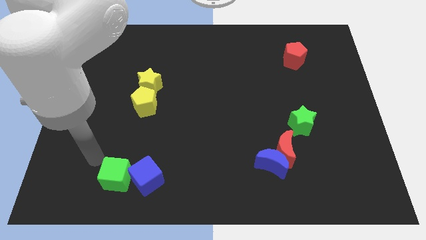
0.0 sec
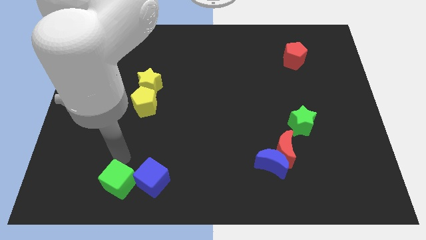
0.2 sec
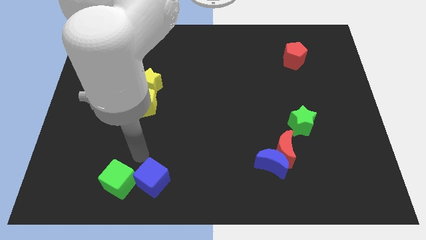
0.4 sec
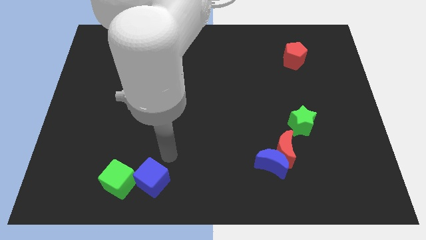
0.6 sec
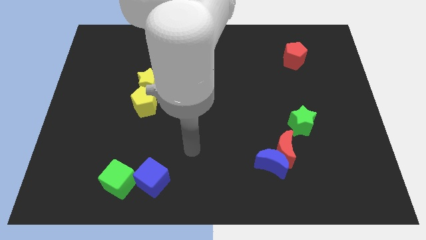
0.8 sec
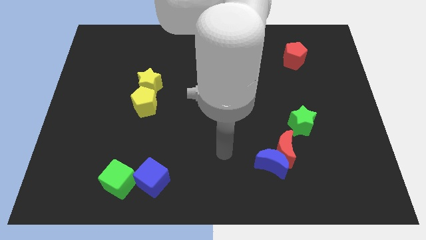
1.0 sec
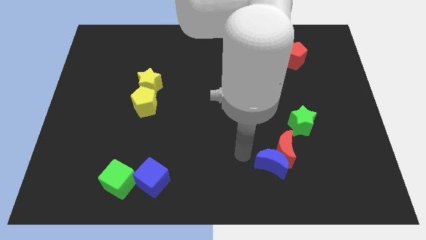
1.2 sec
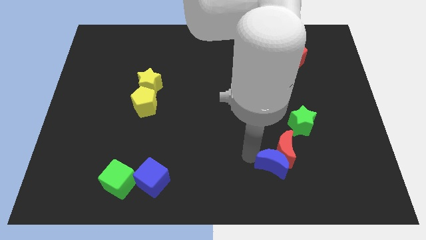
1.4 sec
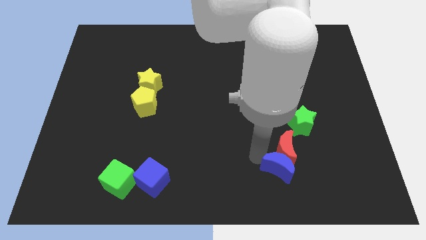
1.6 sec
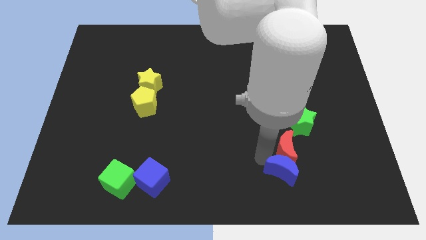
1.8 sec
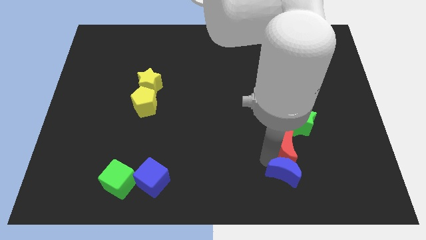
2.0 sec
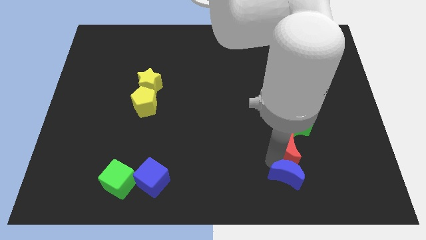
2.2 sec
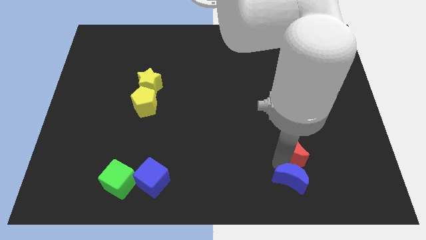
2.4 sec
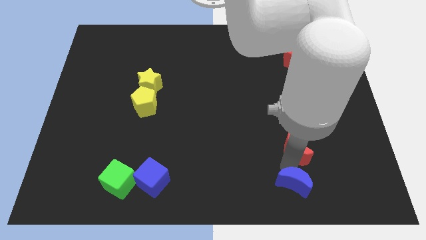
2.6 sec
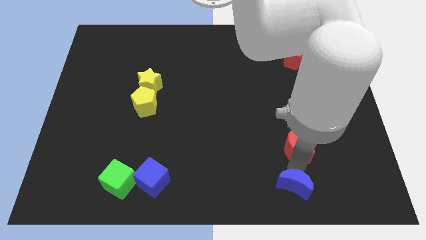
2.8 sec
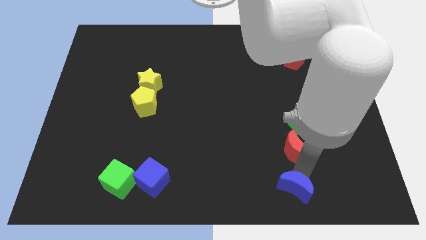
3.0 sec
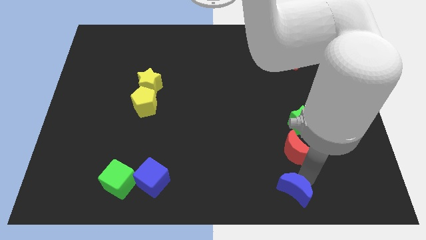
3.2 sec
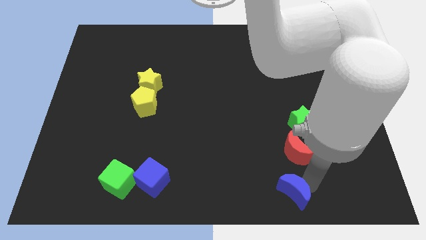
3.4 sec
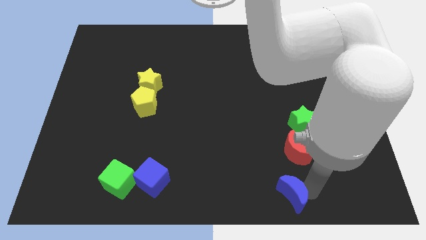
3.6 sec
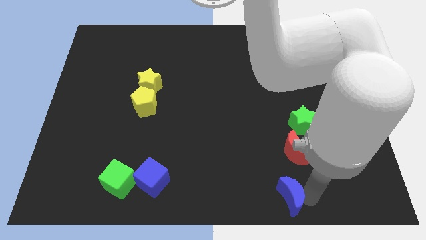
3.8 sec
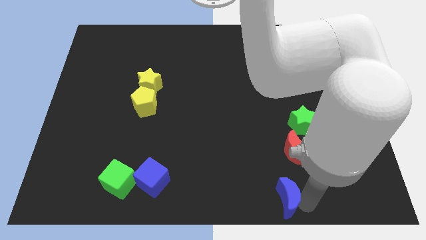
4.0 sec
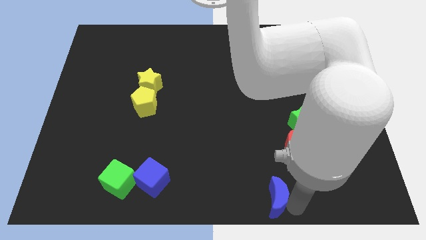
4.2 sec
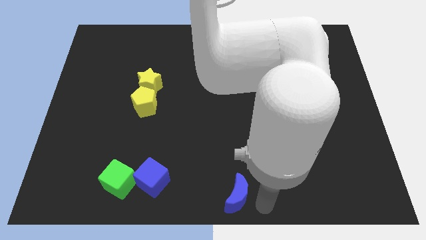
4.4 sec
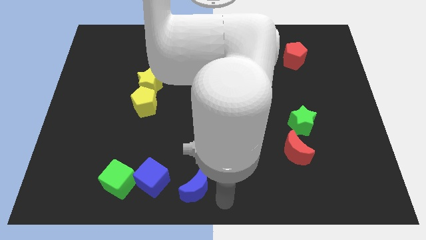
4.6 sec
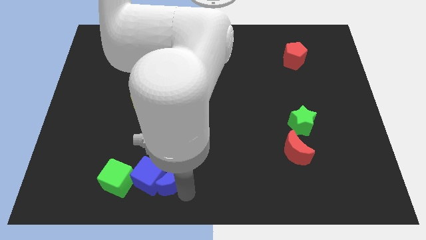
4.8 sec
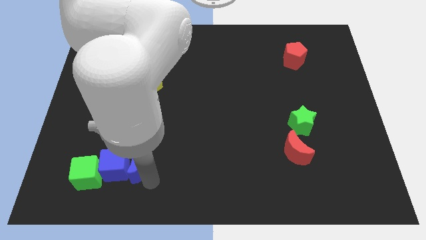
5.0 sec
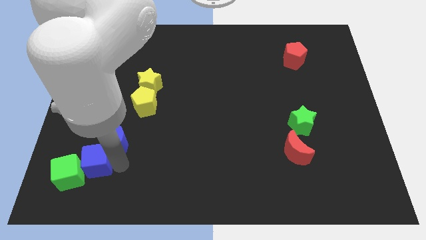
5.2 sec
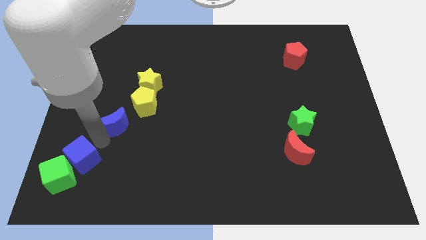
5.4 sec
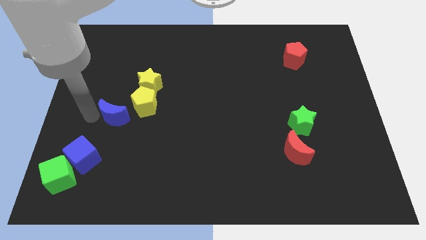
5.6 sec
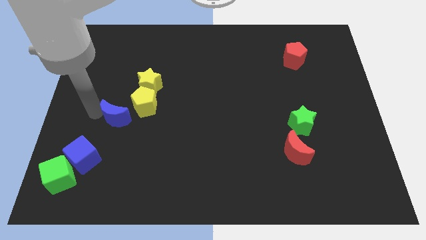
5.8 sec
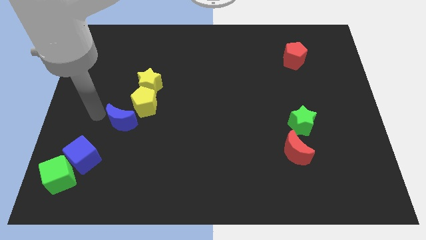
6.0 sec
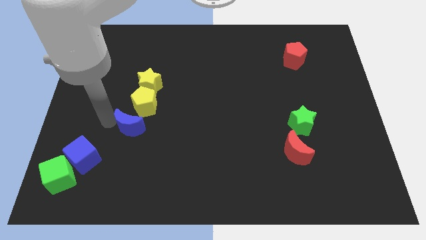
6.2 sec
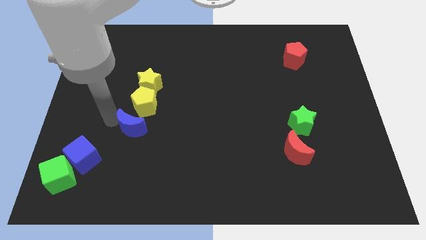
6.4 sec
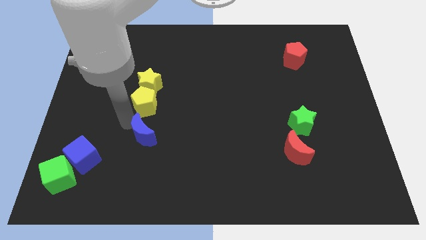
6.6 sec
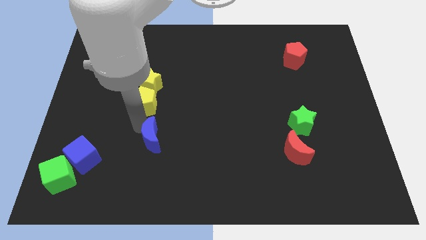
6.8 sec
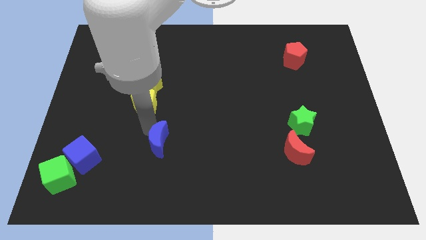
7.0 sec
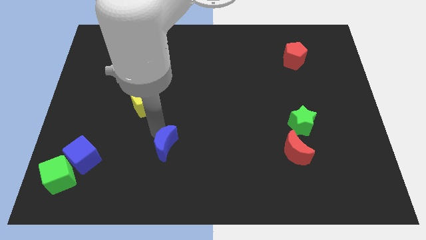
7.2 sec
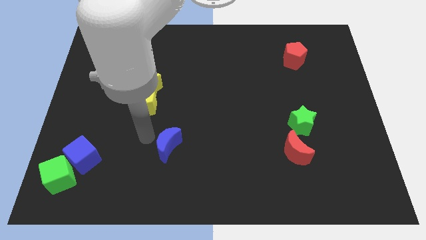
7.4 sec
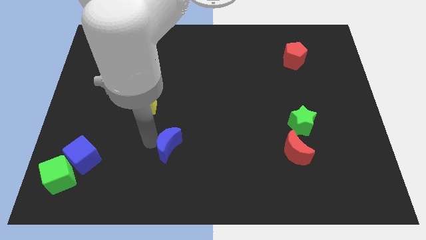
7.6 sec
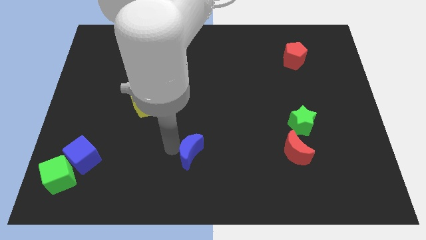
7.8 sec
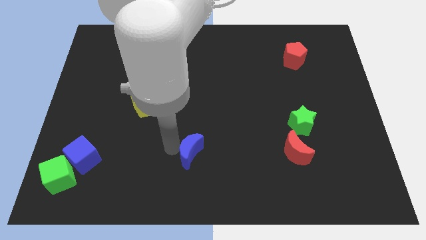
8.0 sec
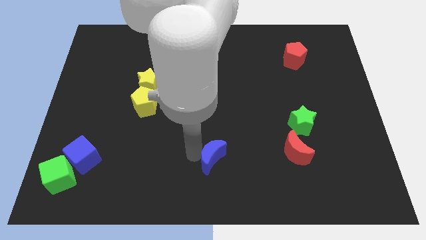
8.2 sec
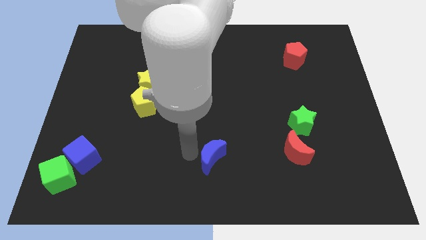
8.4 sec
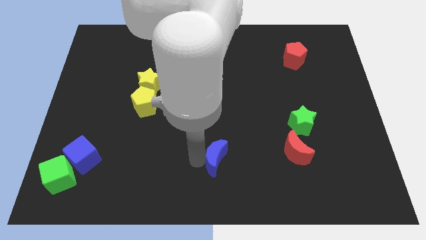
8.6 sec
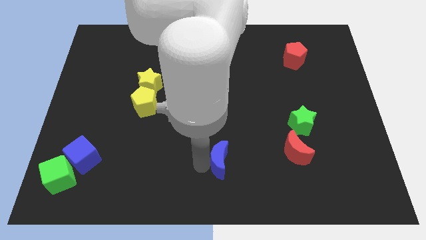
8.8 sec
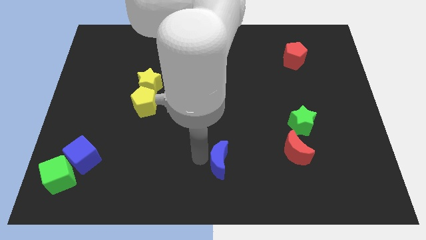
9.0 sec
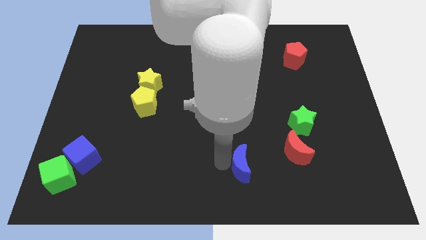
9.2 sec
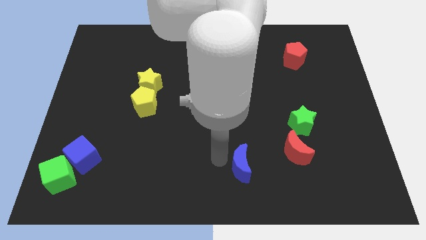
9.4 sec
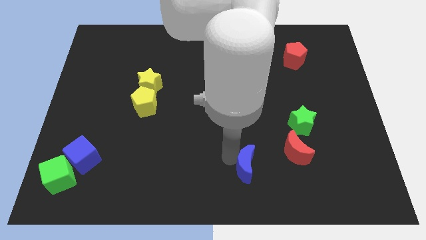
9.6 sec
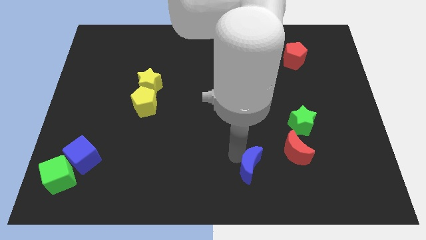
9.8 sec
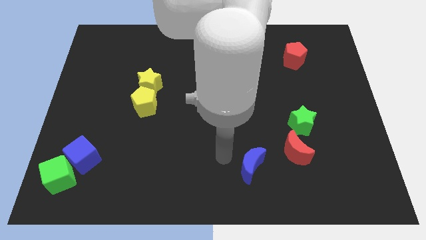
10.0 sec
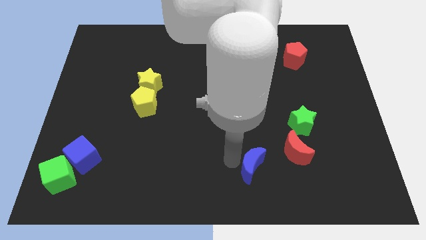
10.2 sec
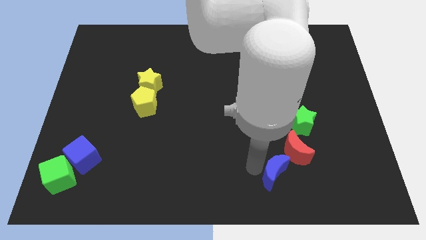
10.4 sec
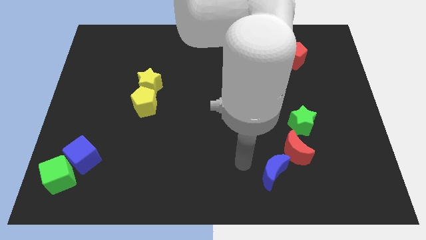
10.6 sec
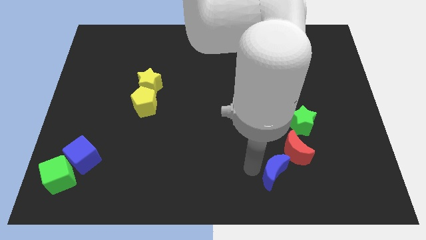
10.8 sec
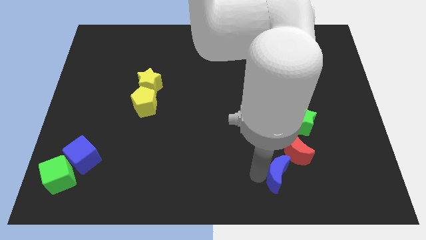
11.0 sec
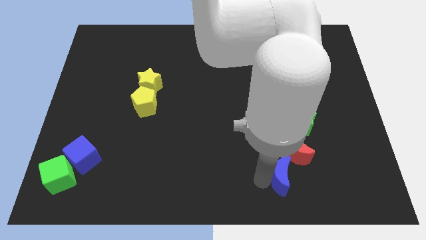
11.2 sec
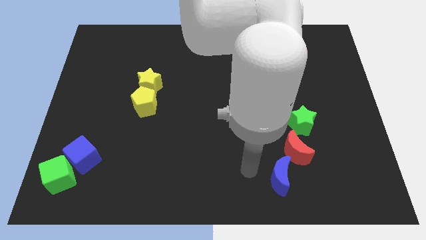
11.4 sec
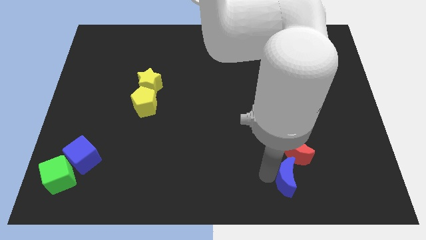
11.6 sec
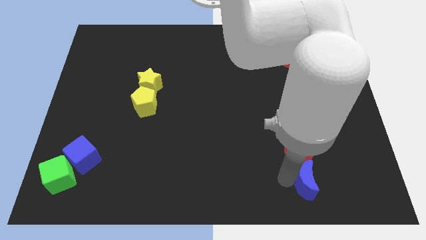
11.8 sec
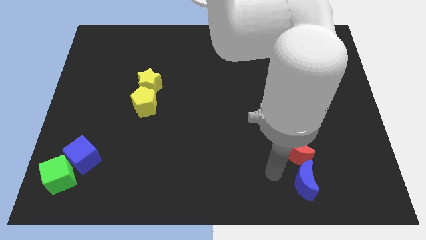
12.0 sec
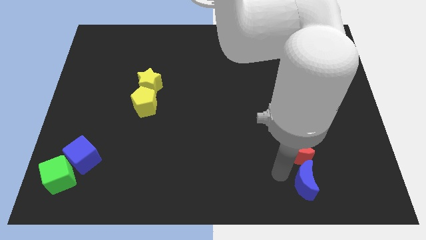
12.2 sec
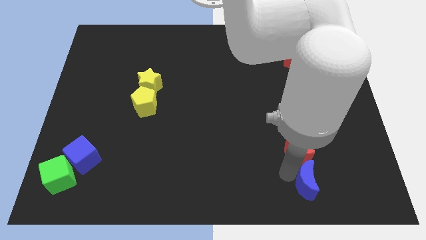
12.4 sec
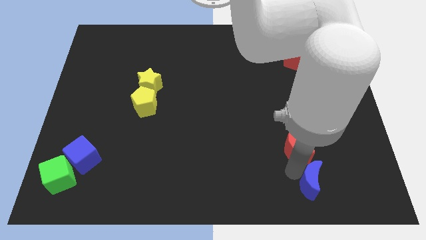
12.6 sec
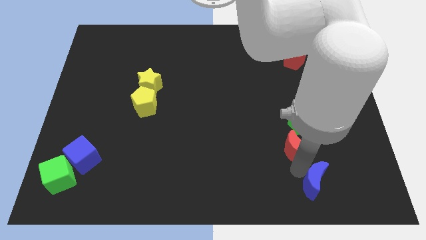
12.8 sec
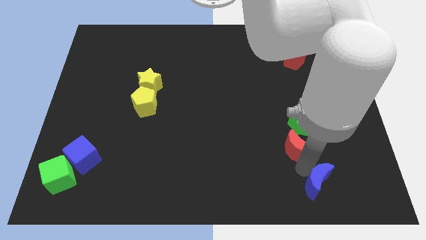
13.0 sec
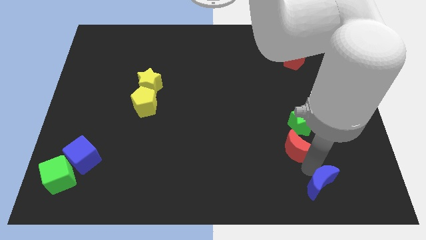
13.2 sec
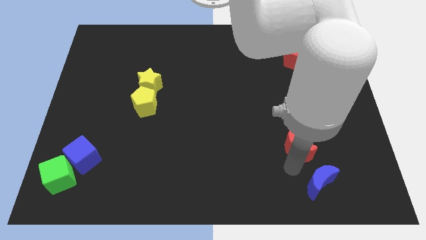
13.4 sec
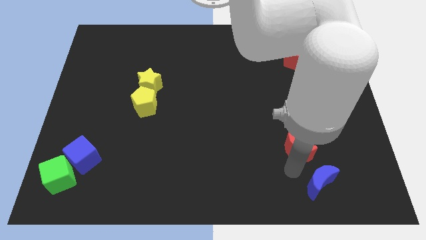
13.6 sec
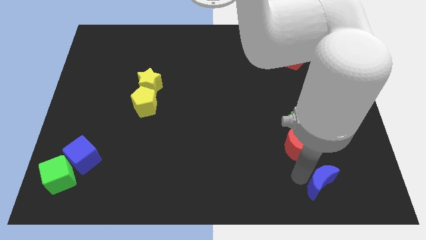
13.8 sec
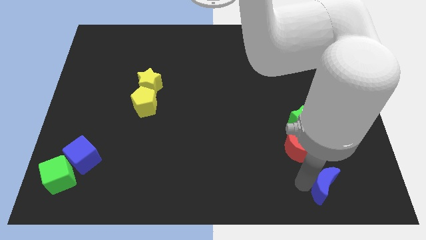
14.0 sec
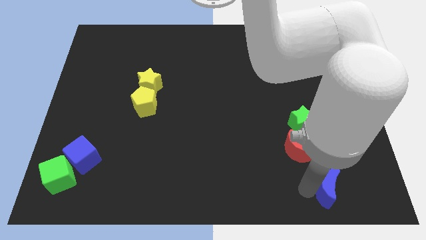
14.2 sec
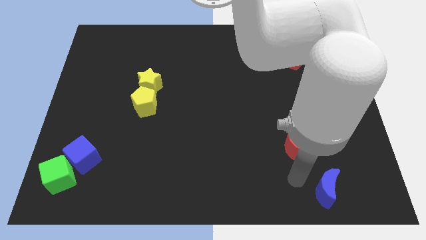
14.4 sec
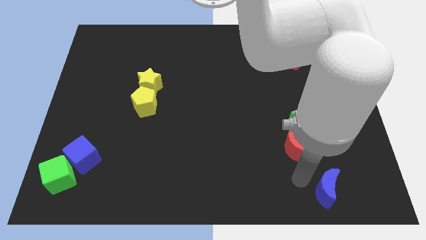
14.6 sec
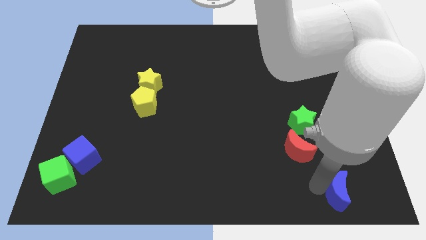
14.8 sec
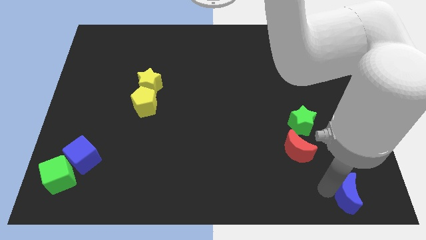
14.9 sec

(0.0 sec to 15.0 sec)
slide the blue moon to the lower right corner
